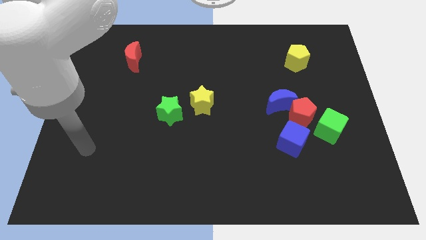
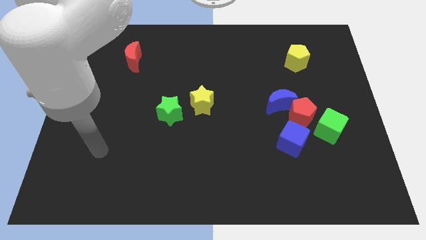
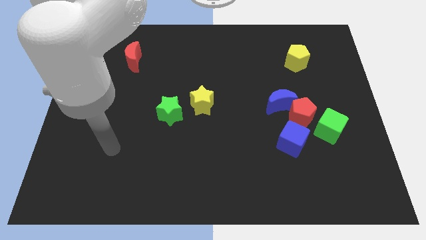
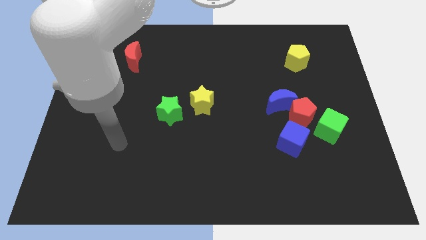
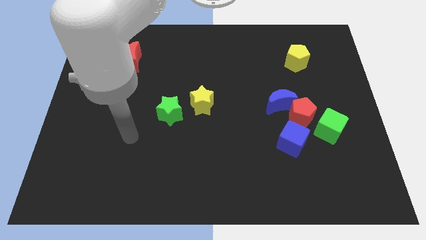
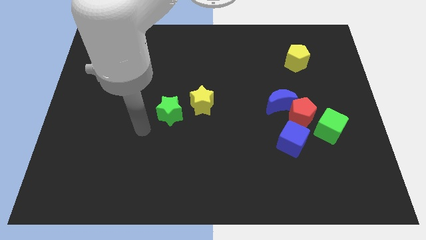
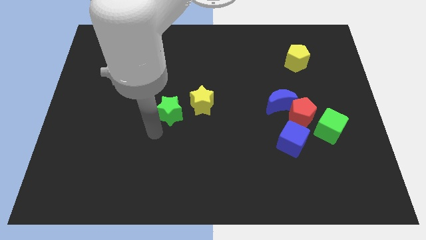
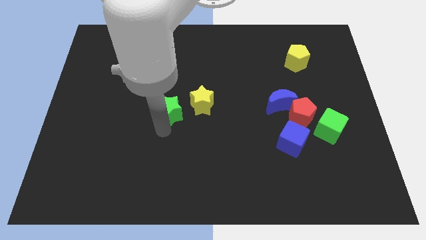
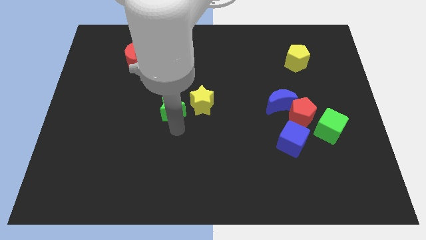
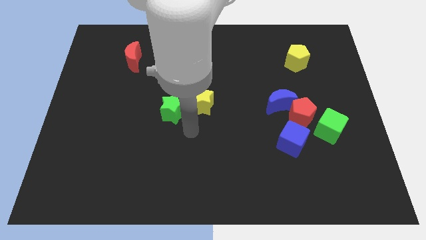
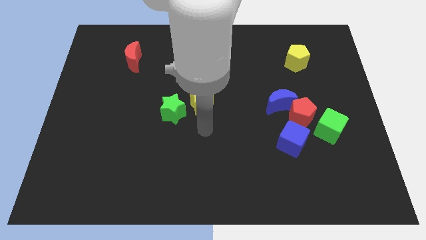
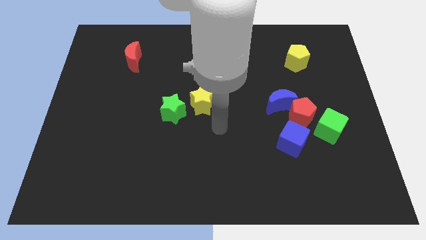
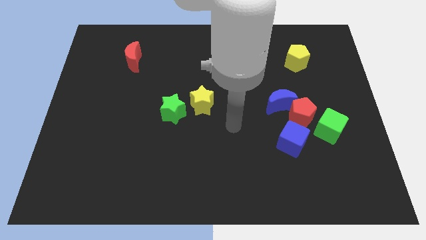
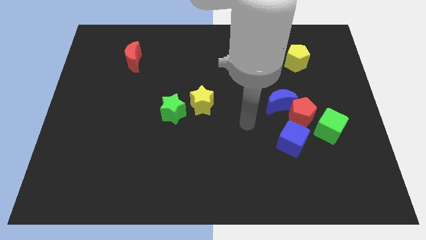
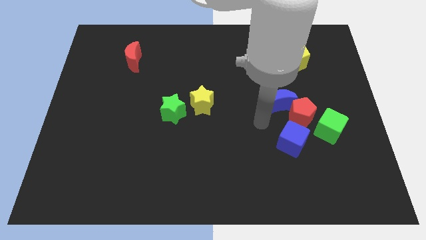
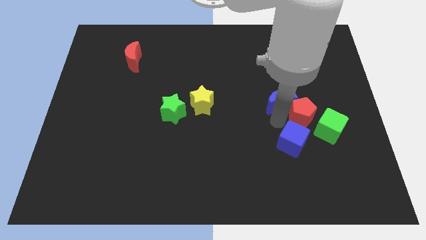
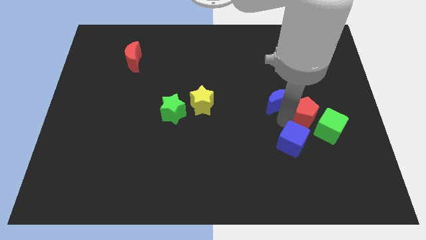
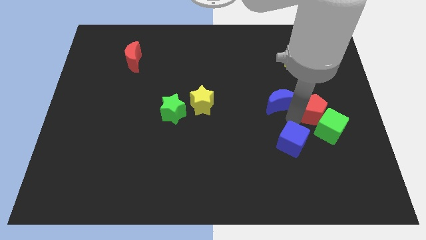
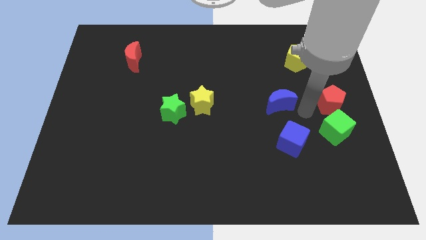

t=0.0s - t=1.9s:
move the blue moon away from the red pentagon

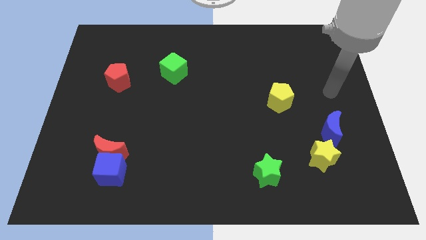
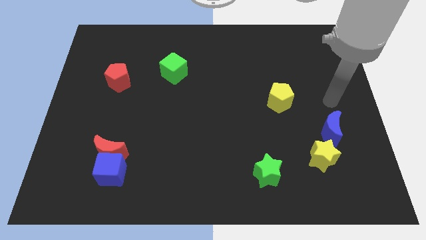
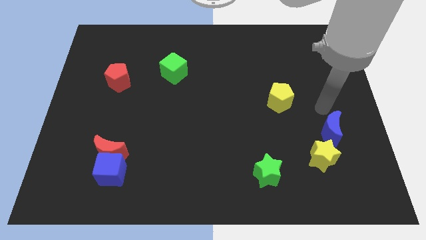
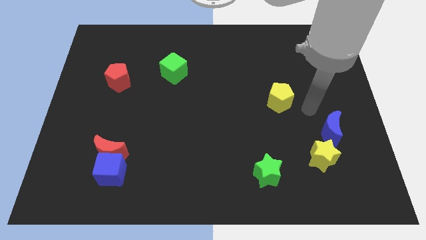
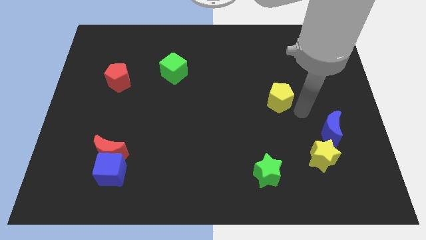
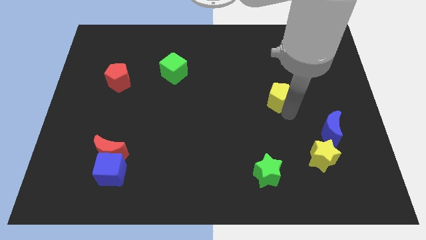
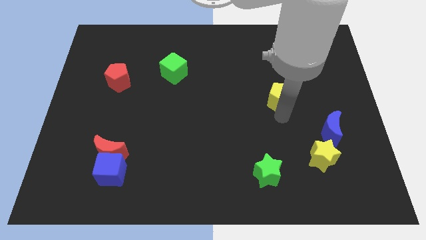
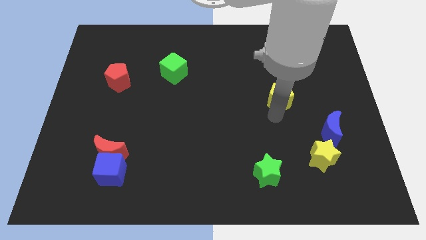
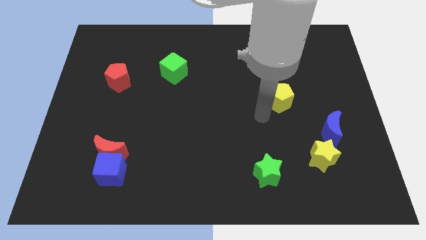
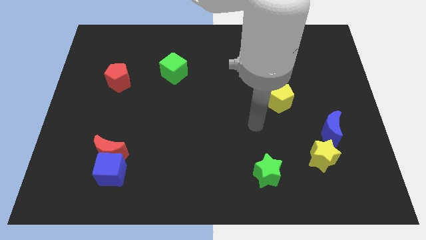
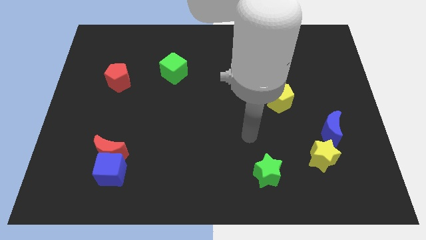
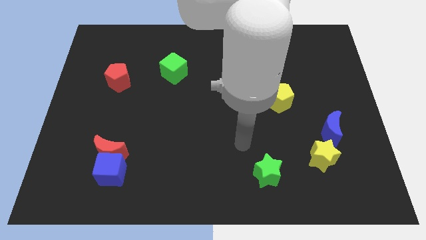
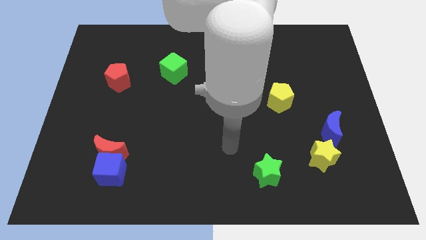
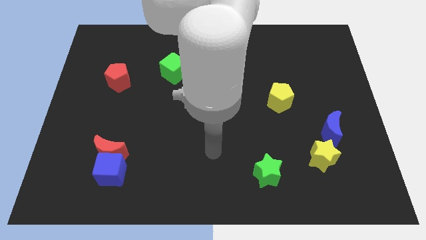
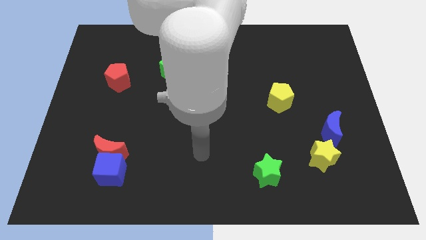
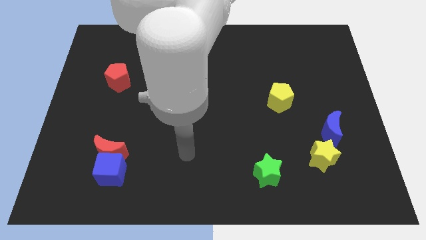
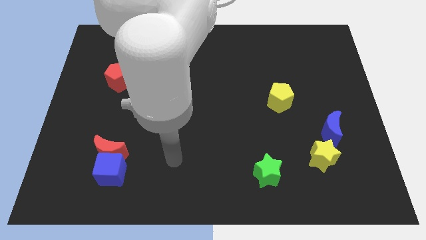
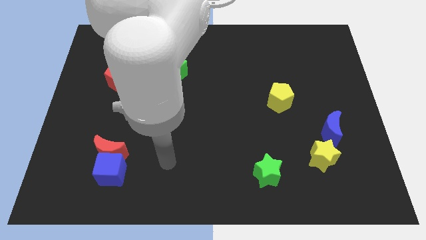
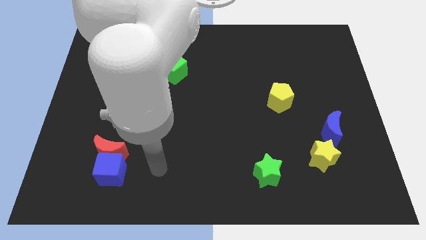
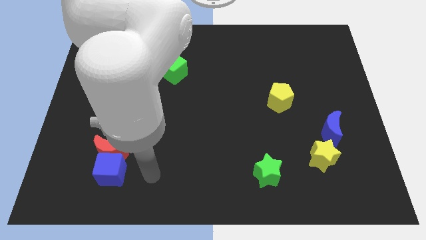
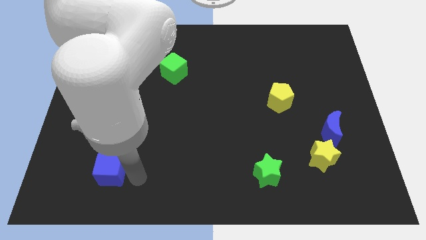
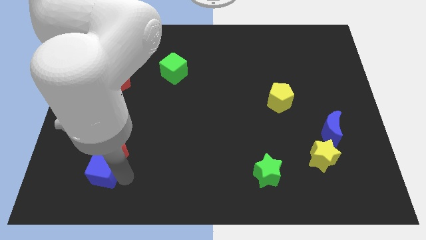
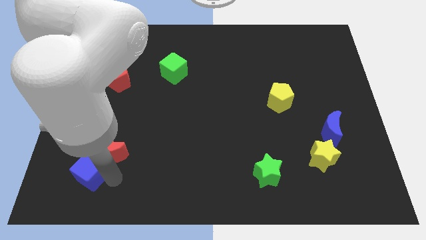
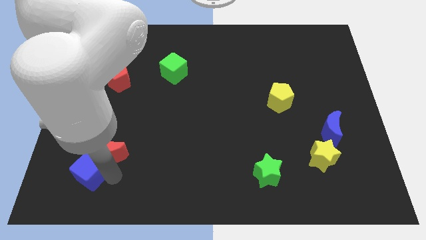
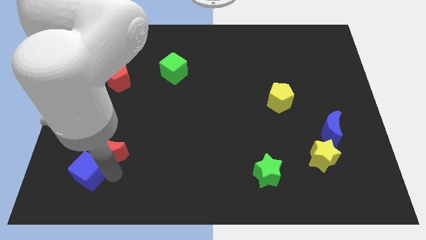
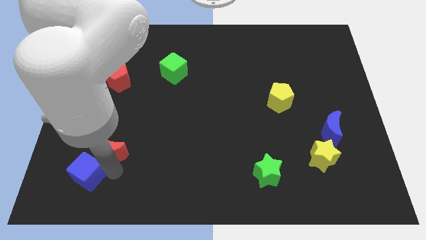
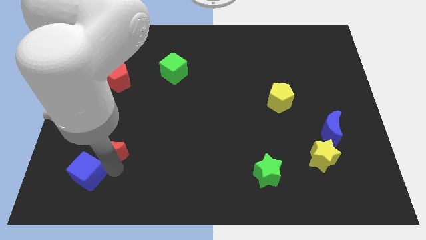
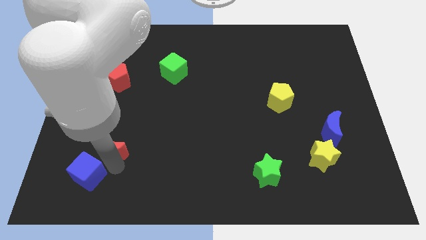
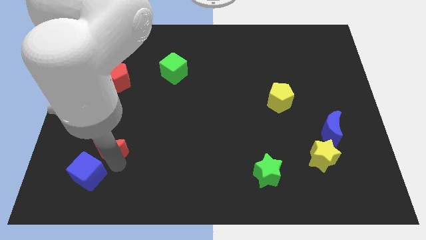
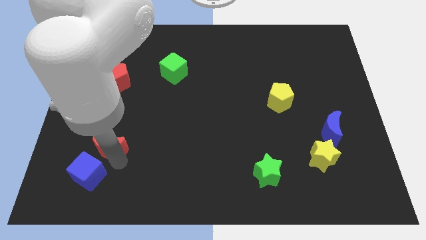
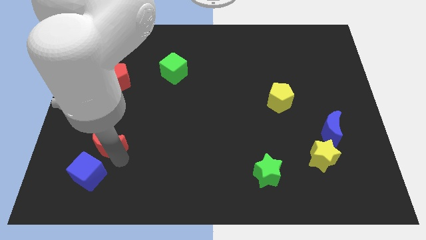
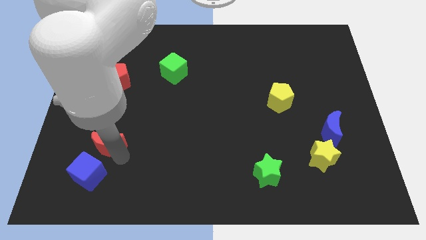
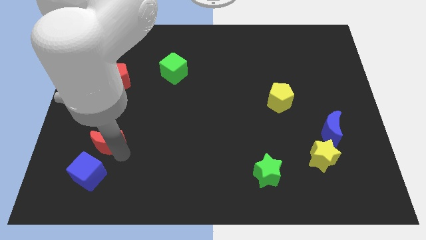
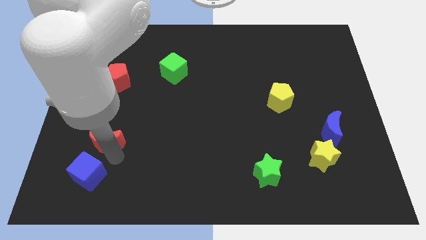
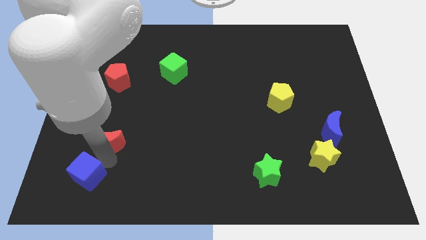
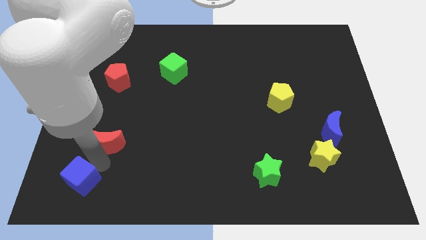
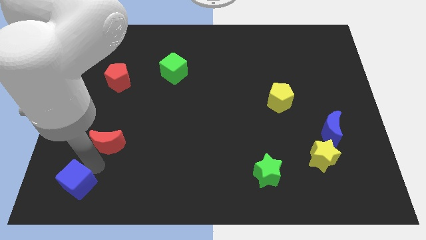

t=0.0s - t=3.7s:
move the red moon away from the blue cube

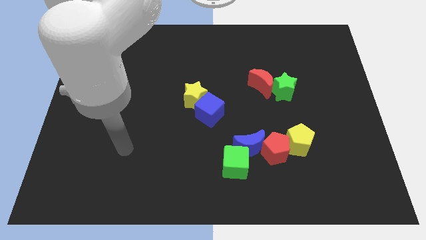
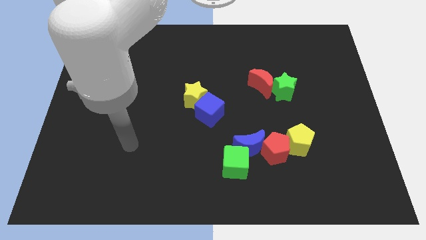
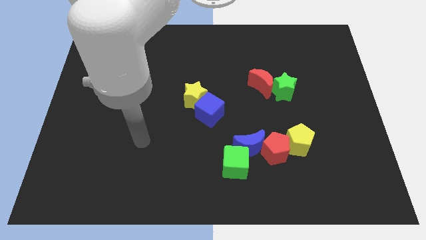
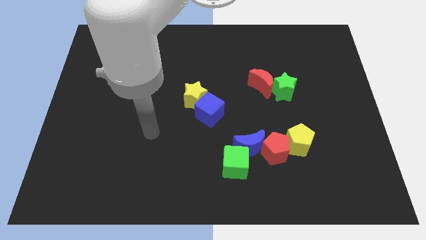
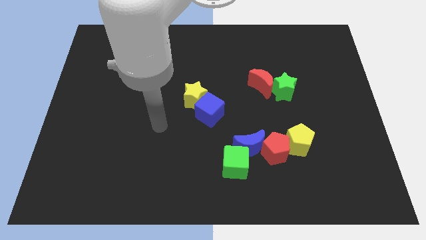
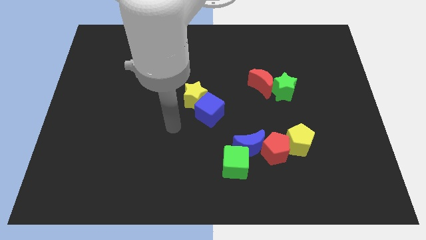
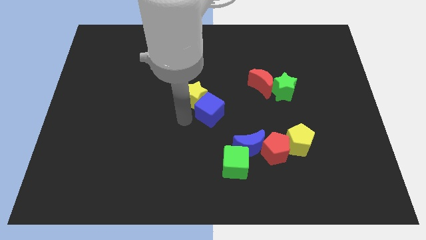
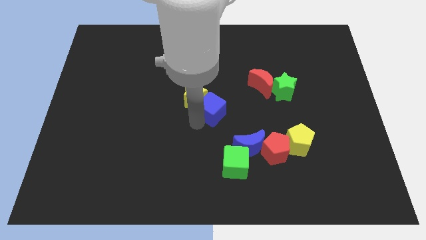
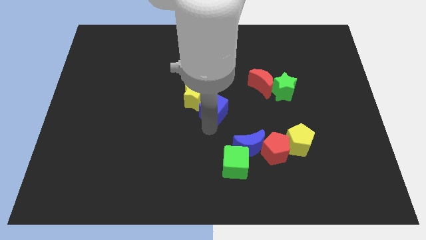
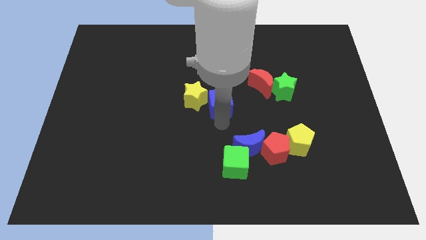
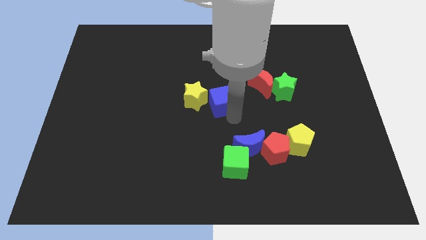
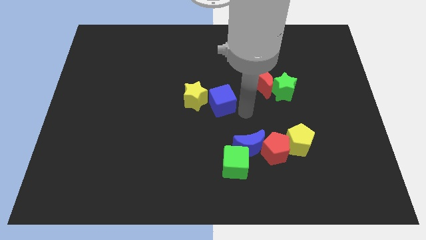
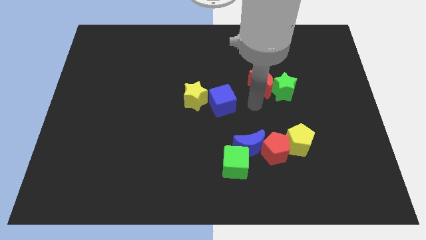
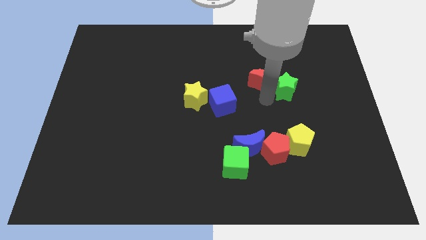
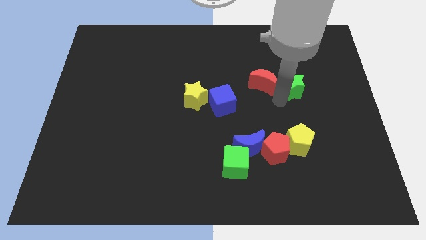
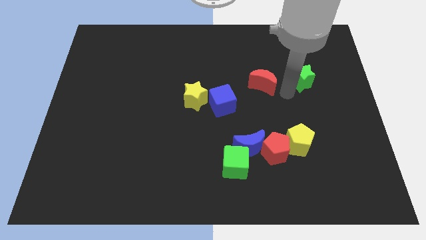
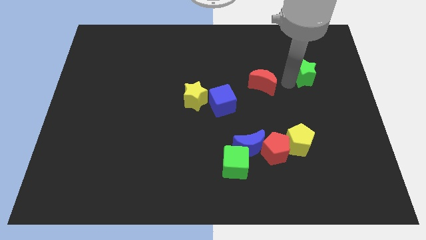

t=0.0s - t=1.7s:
move the red moon away from the green star

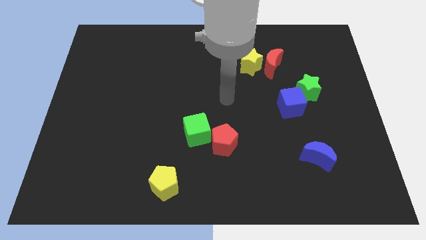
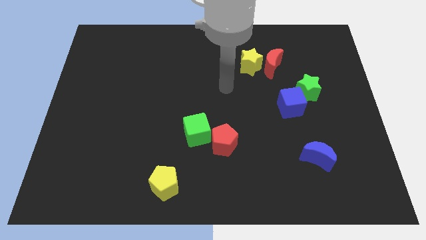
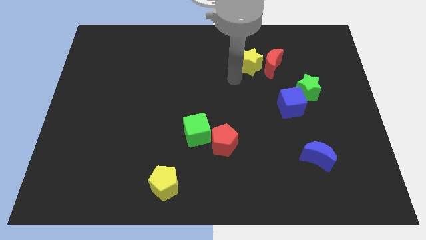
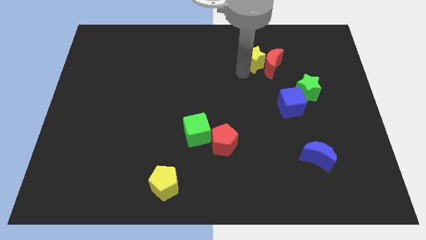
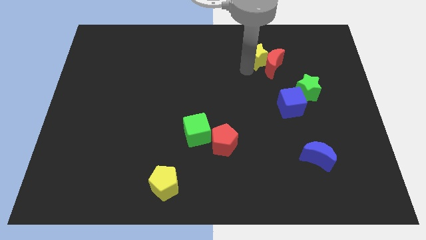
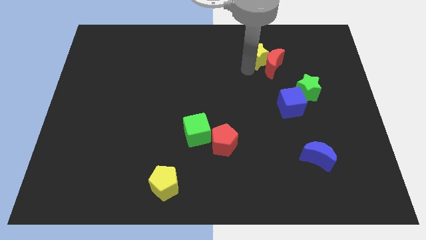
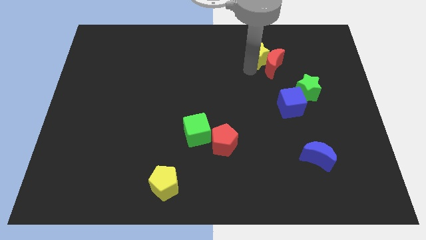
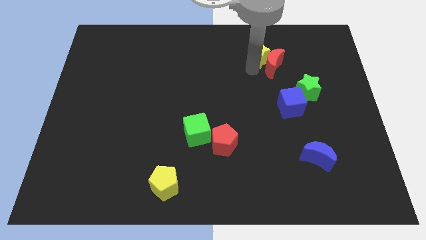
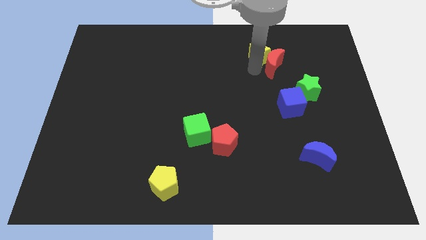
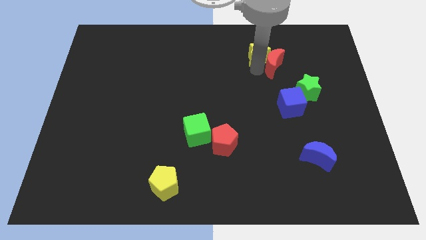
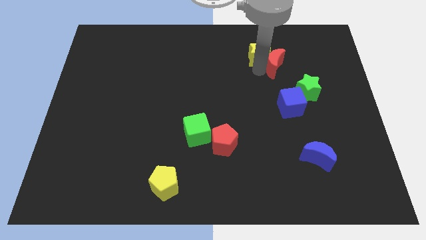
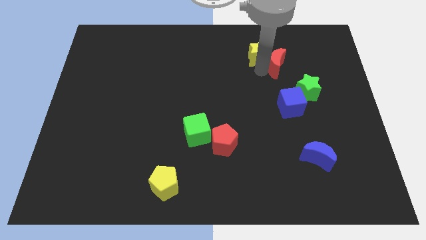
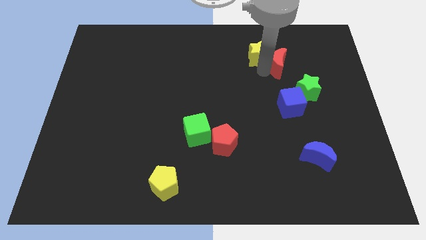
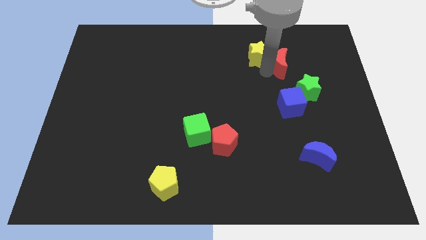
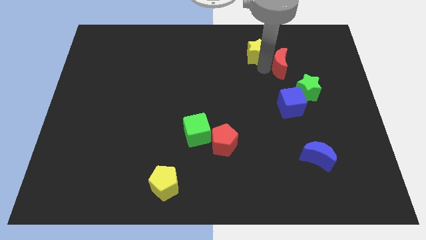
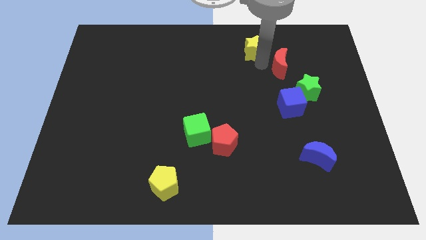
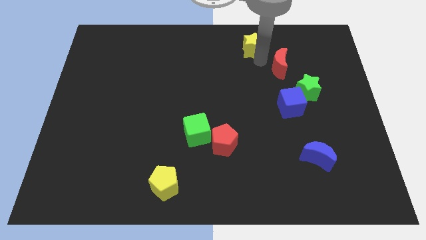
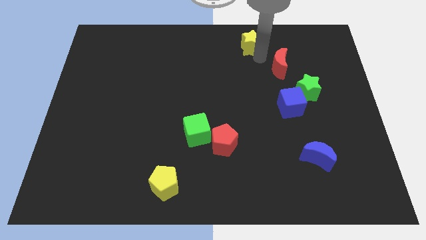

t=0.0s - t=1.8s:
separate the red moon from the yellow star

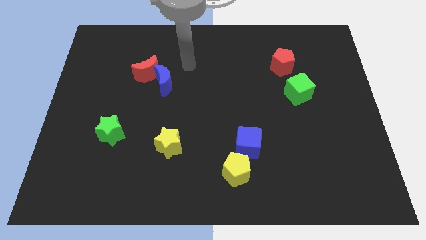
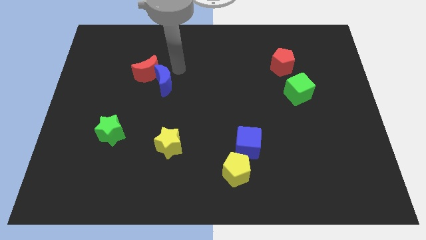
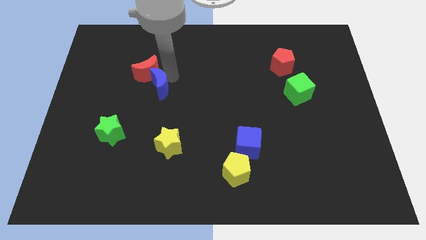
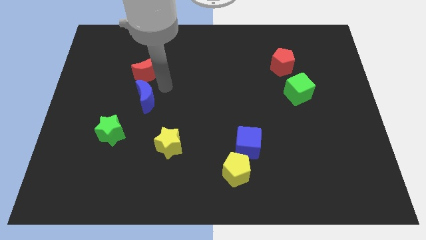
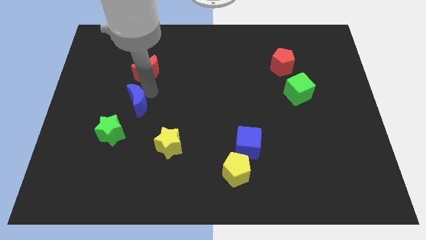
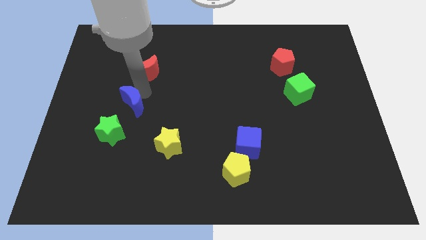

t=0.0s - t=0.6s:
separate the red moon from the blue moon
